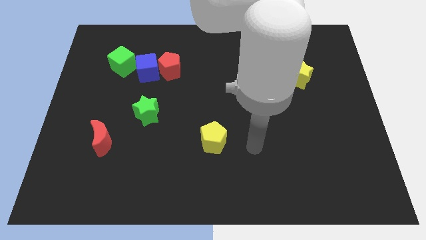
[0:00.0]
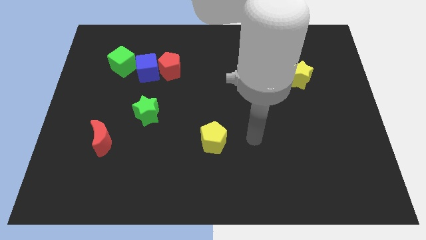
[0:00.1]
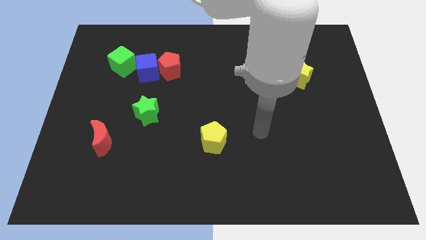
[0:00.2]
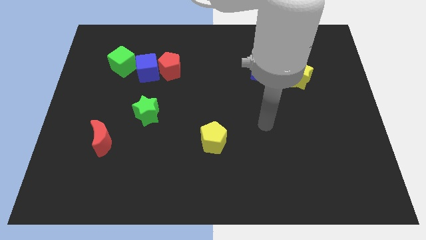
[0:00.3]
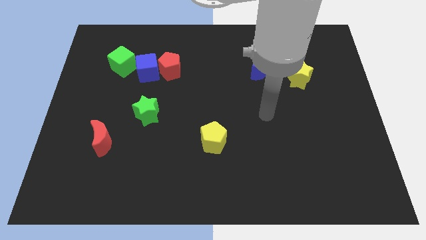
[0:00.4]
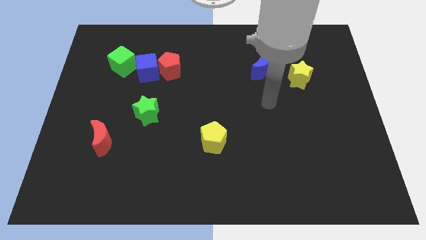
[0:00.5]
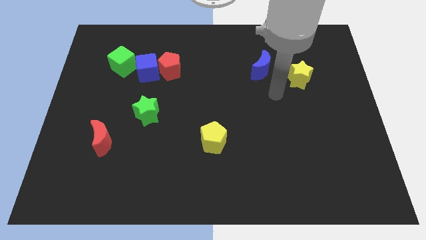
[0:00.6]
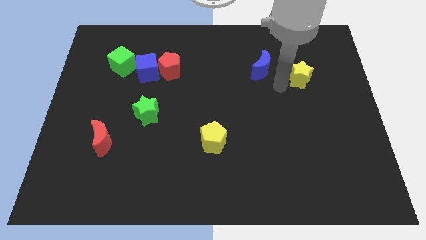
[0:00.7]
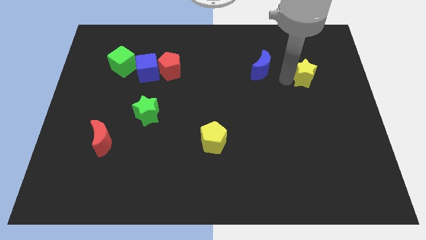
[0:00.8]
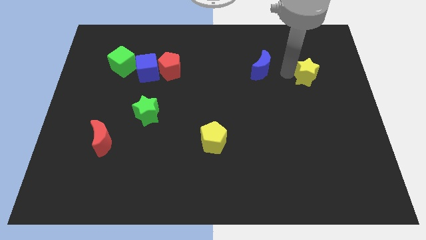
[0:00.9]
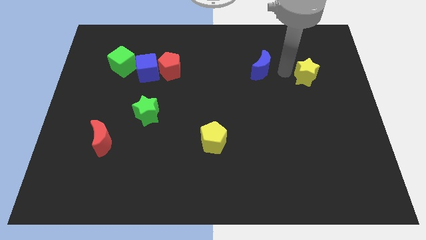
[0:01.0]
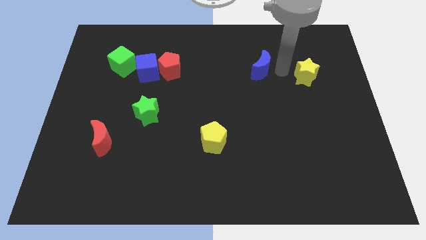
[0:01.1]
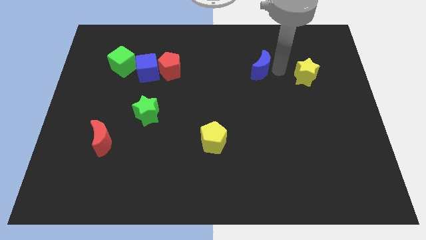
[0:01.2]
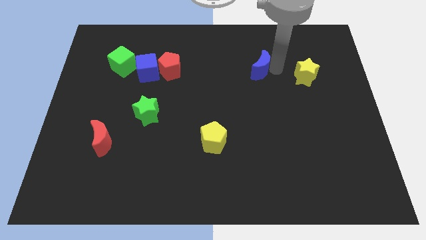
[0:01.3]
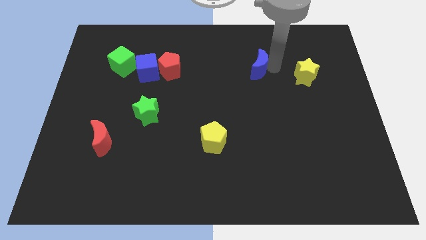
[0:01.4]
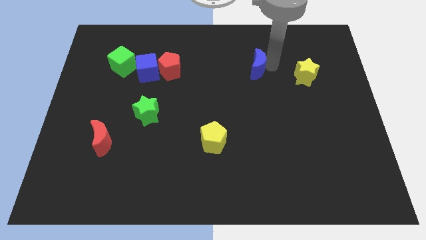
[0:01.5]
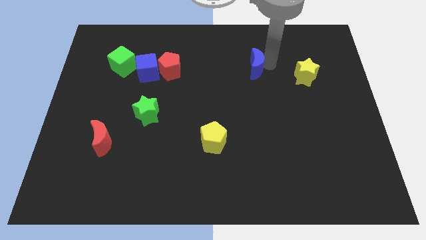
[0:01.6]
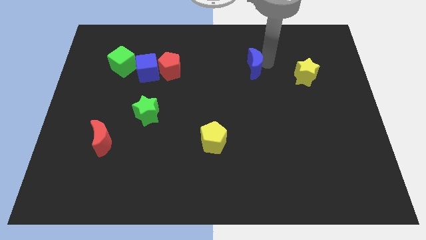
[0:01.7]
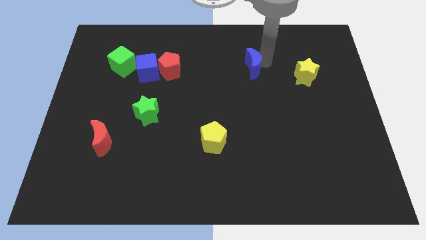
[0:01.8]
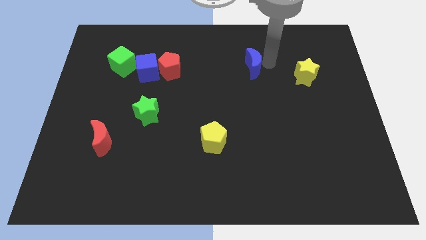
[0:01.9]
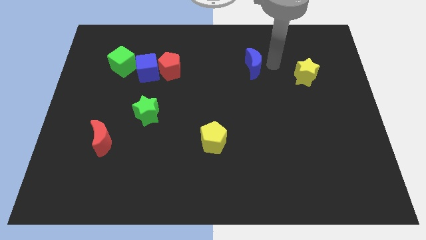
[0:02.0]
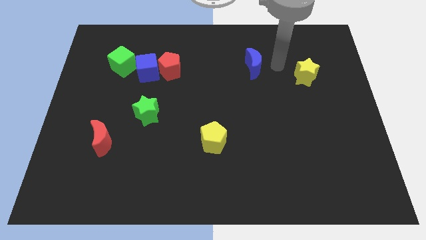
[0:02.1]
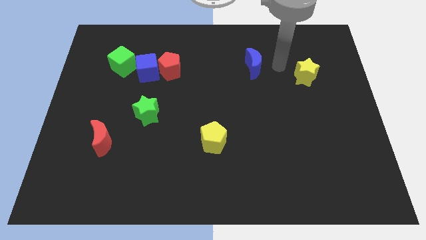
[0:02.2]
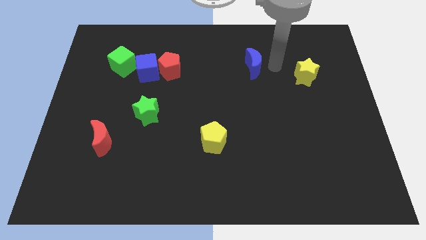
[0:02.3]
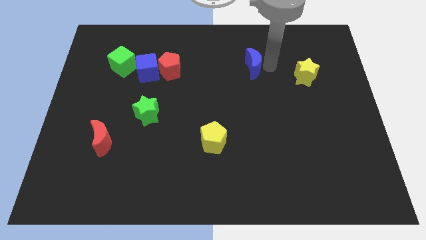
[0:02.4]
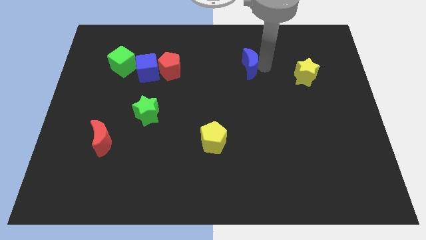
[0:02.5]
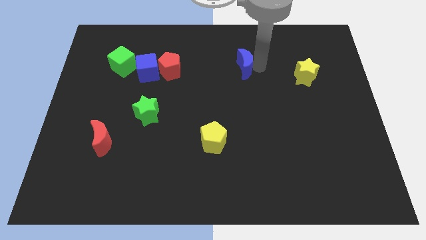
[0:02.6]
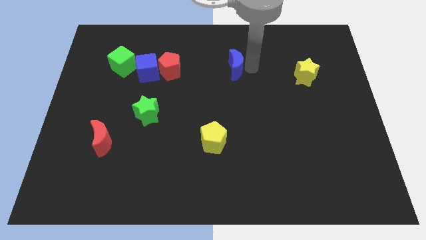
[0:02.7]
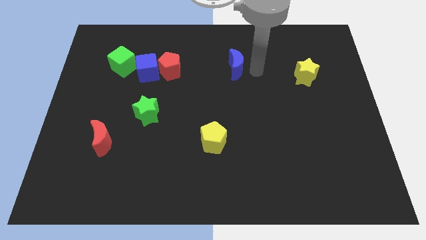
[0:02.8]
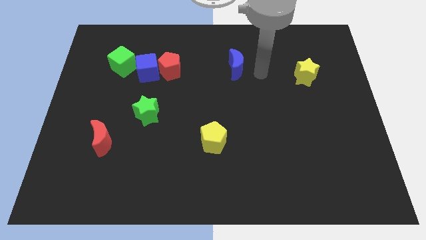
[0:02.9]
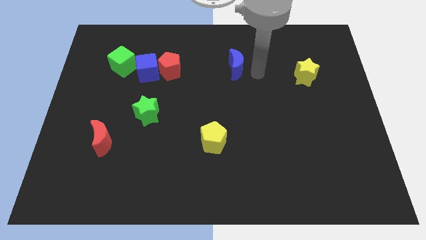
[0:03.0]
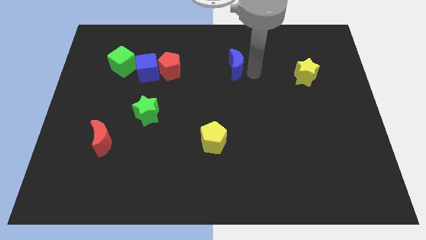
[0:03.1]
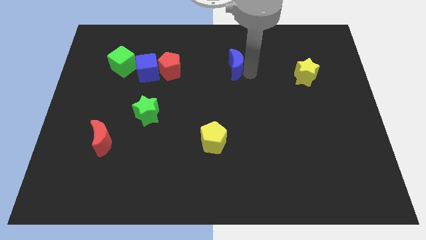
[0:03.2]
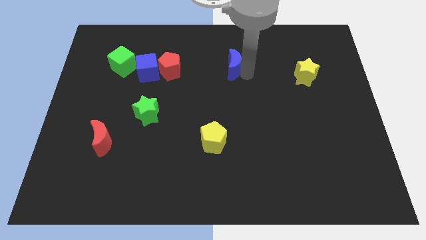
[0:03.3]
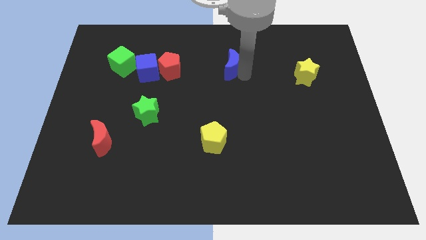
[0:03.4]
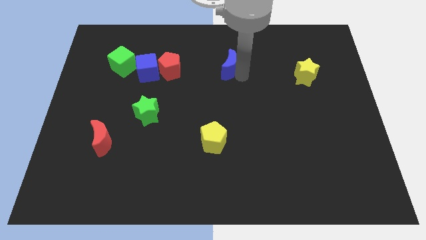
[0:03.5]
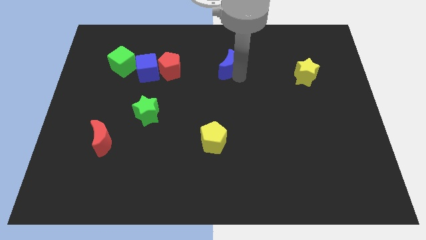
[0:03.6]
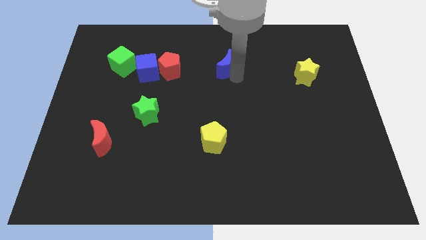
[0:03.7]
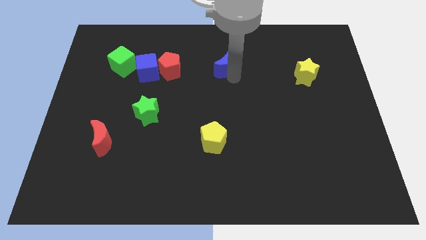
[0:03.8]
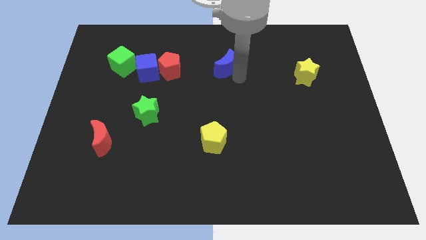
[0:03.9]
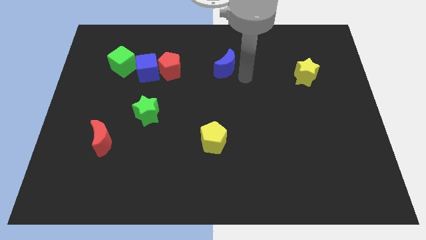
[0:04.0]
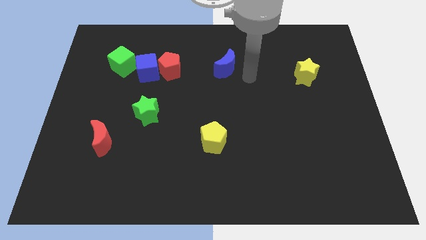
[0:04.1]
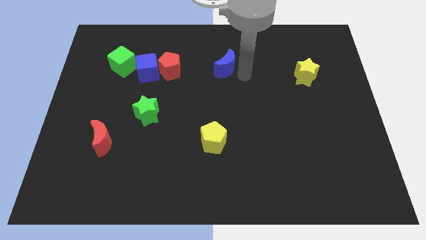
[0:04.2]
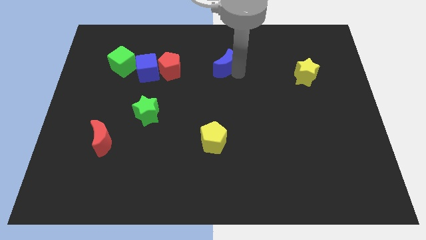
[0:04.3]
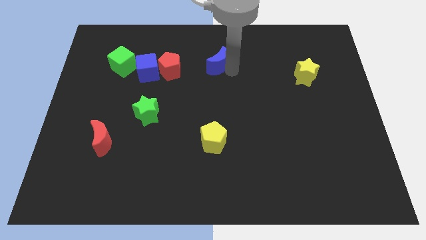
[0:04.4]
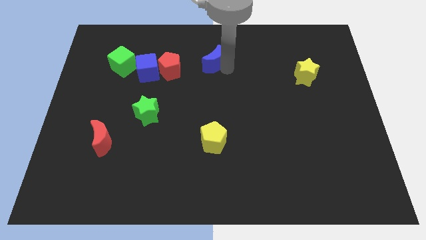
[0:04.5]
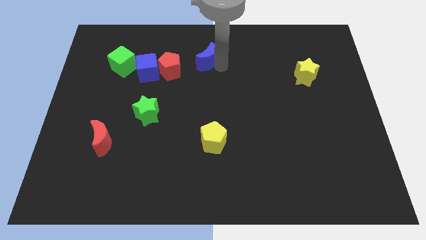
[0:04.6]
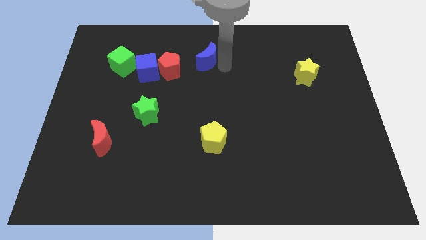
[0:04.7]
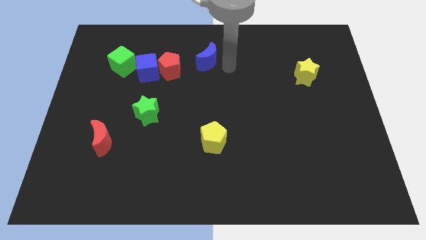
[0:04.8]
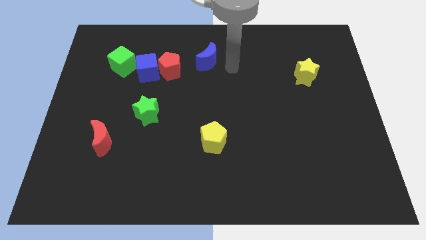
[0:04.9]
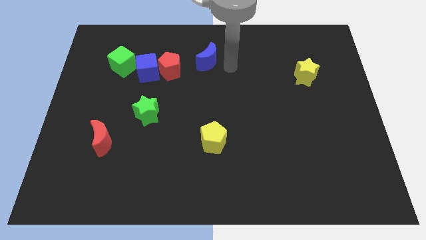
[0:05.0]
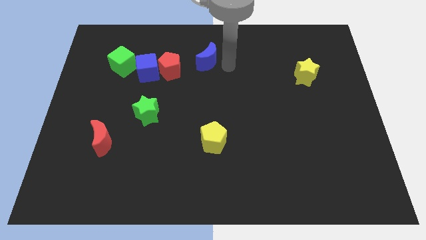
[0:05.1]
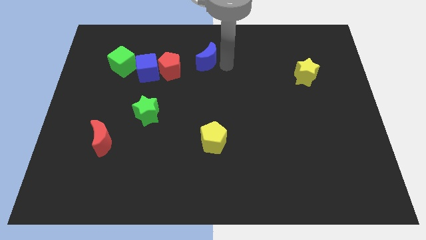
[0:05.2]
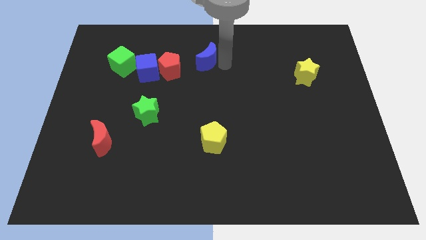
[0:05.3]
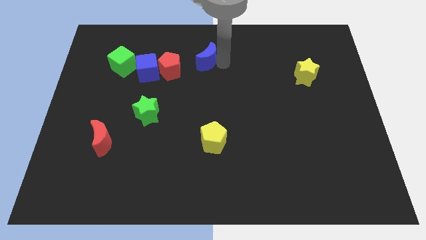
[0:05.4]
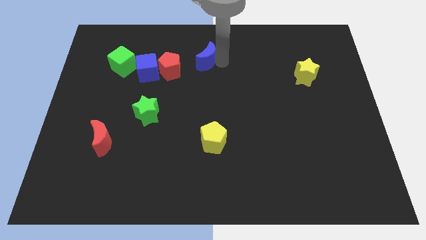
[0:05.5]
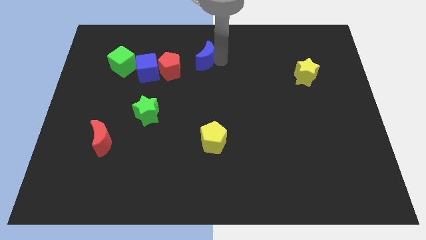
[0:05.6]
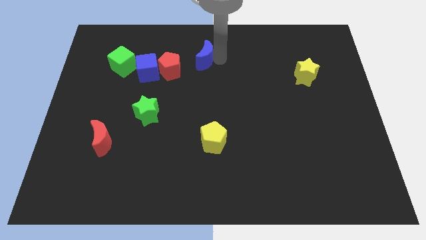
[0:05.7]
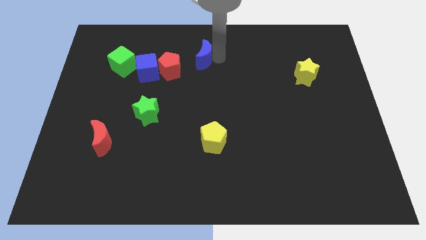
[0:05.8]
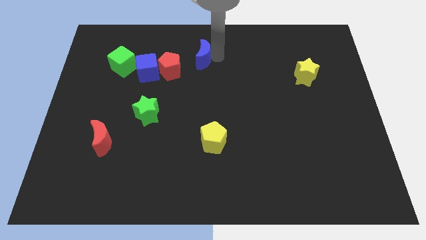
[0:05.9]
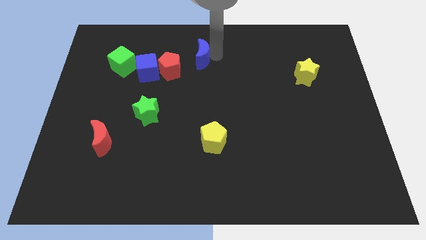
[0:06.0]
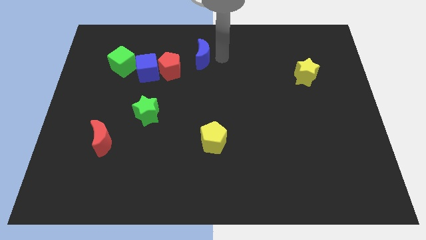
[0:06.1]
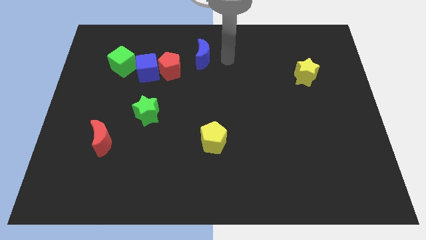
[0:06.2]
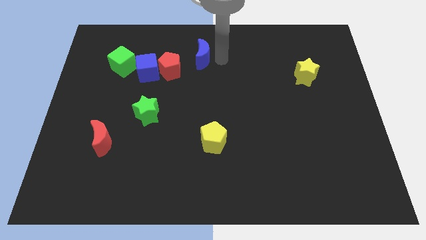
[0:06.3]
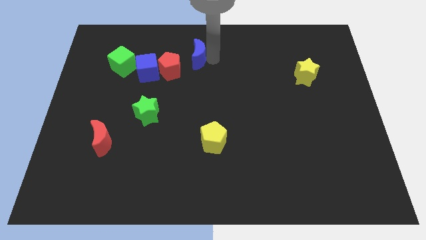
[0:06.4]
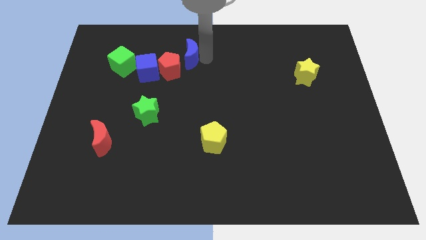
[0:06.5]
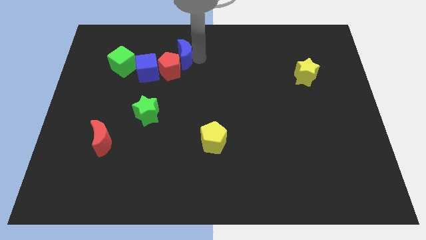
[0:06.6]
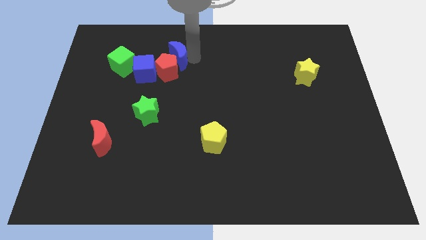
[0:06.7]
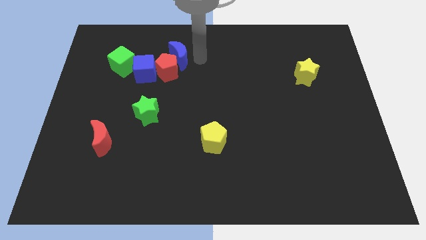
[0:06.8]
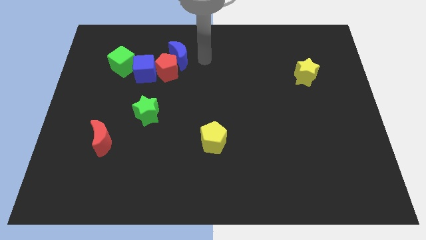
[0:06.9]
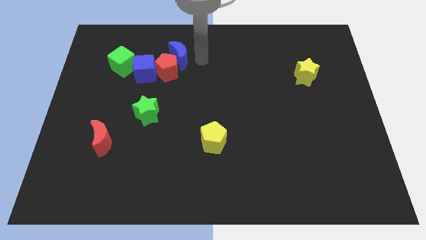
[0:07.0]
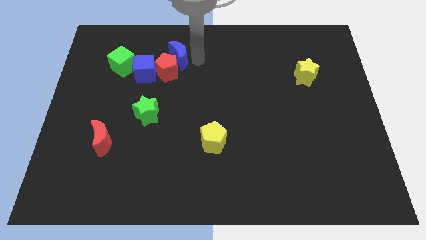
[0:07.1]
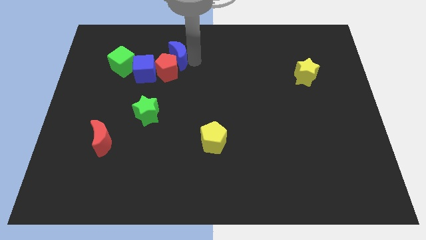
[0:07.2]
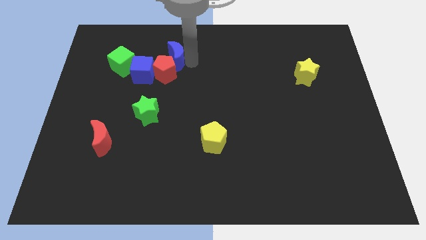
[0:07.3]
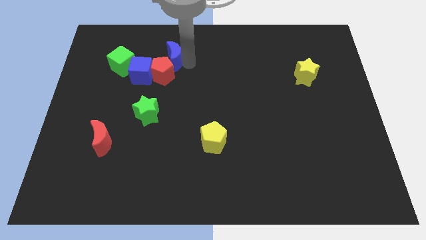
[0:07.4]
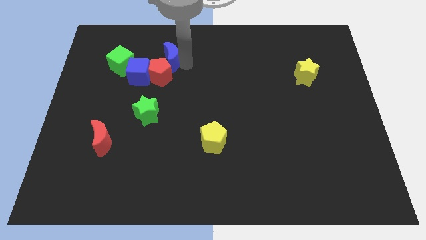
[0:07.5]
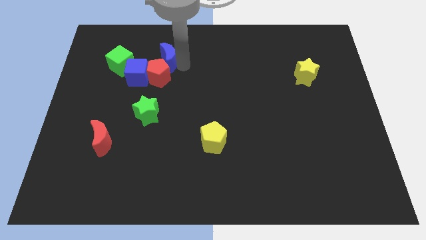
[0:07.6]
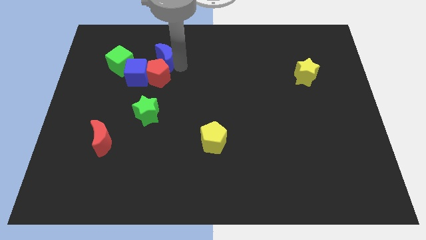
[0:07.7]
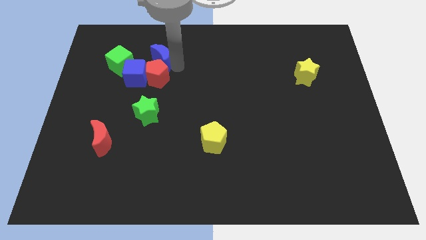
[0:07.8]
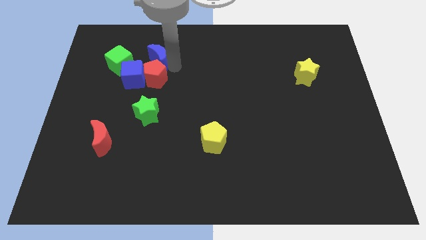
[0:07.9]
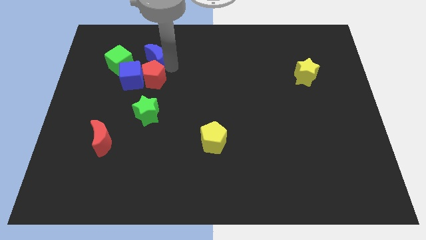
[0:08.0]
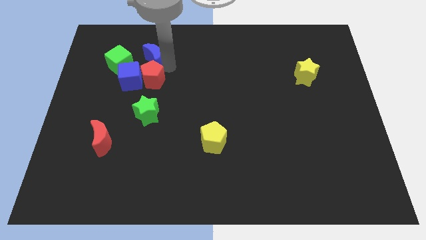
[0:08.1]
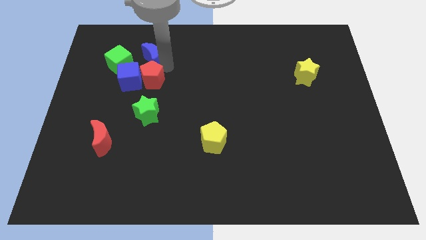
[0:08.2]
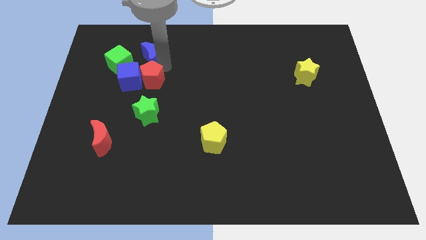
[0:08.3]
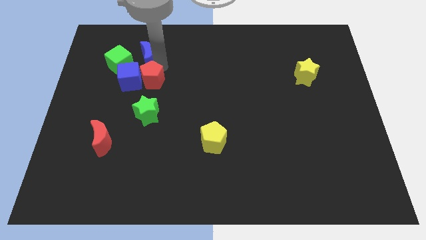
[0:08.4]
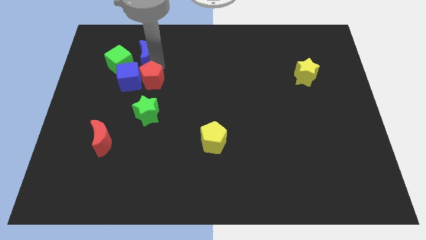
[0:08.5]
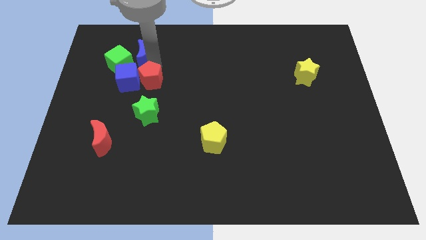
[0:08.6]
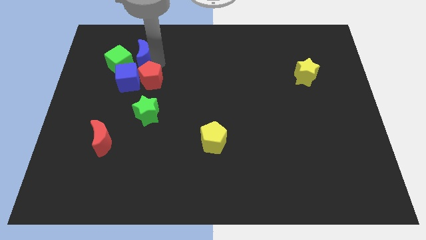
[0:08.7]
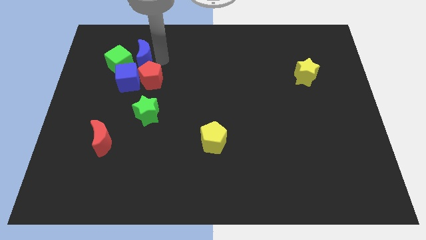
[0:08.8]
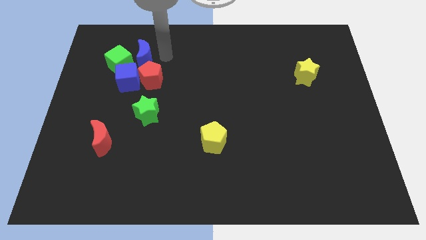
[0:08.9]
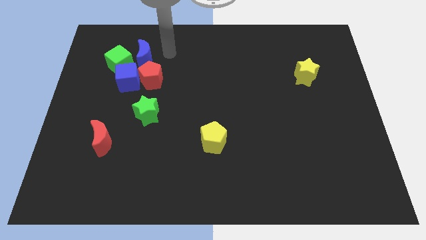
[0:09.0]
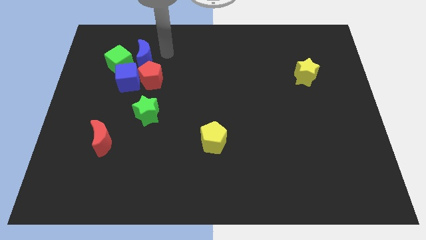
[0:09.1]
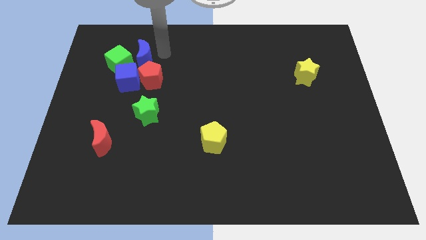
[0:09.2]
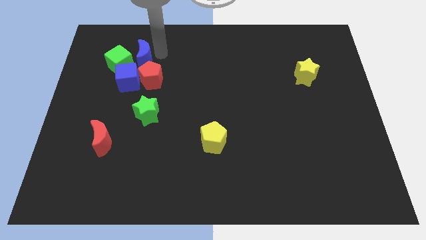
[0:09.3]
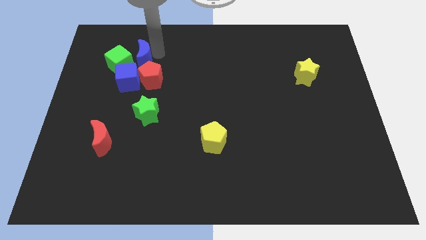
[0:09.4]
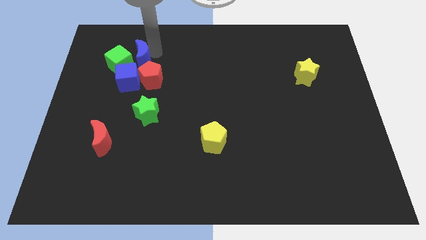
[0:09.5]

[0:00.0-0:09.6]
move the blue moon next to the green cube
